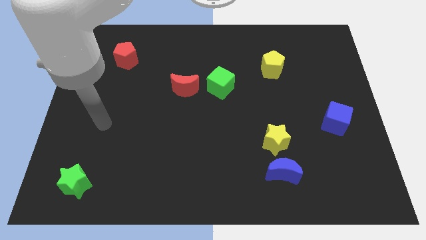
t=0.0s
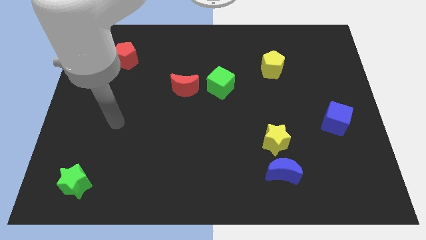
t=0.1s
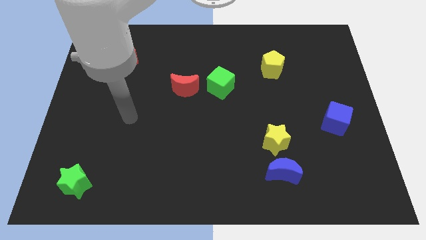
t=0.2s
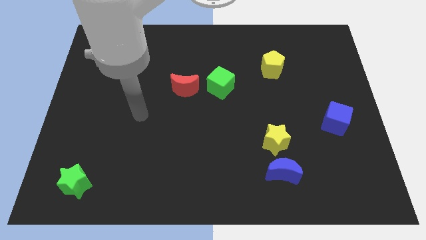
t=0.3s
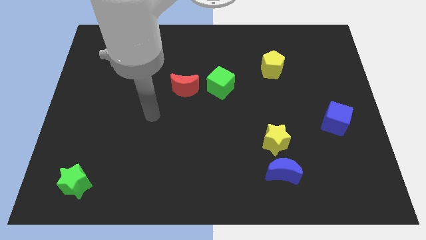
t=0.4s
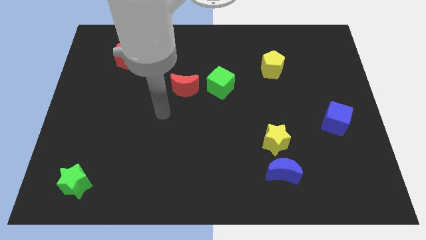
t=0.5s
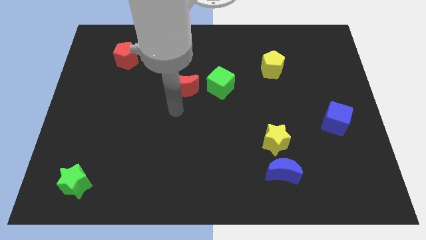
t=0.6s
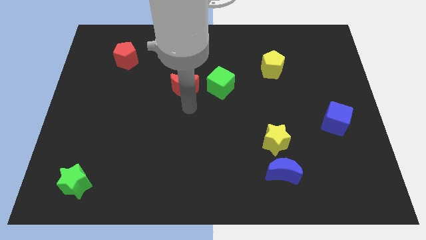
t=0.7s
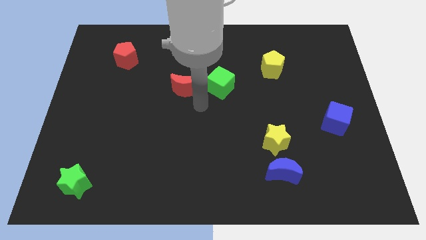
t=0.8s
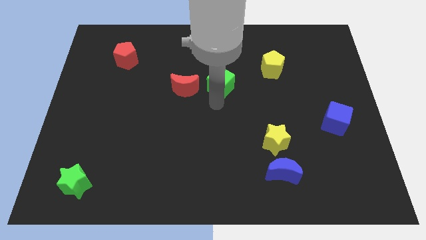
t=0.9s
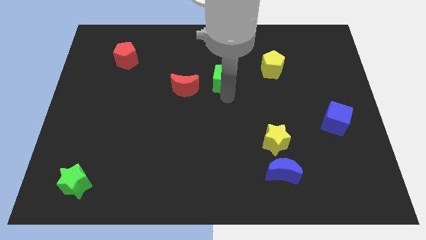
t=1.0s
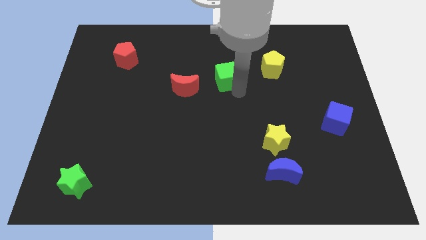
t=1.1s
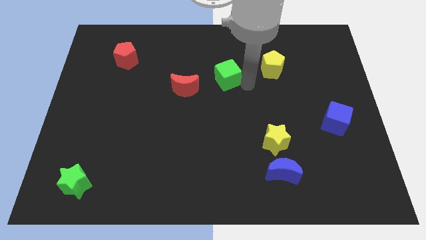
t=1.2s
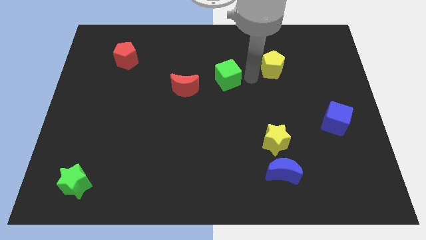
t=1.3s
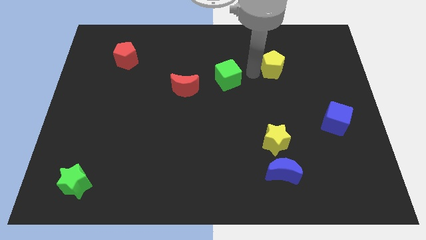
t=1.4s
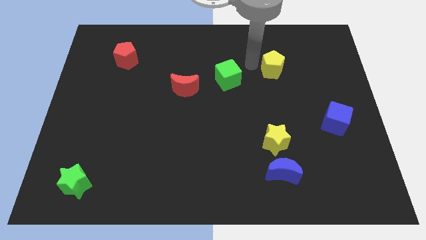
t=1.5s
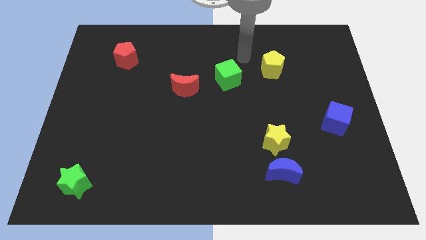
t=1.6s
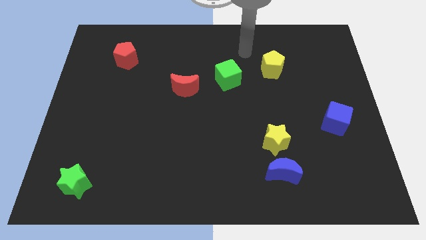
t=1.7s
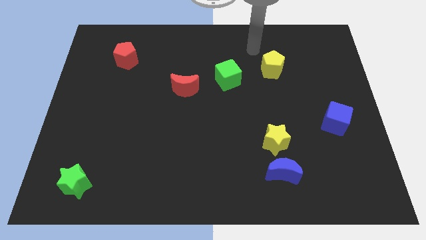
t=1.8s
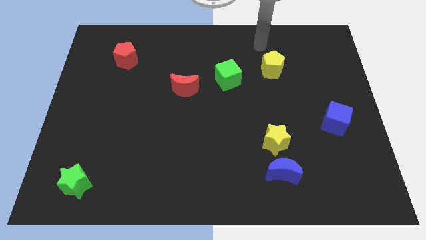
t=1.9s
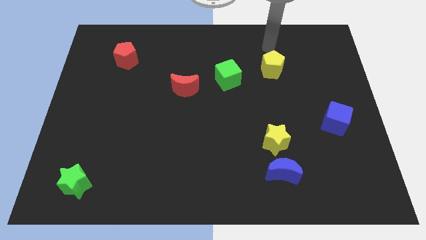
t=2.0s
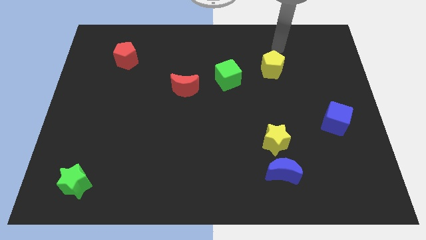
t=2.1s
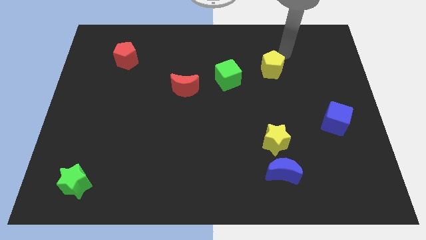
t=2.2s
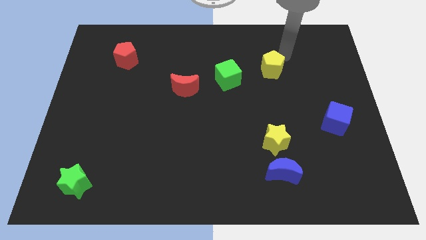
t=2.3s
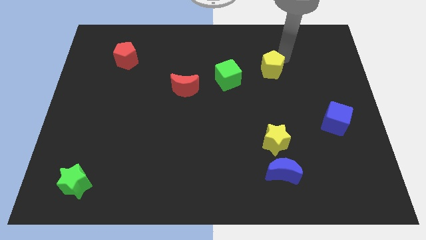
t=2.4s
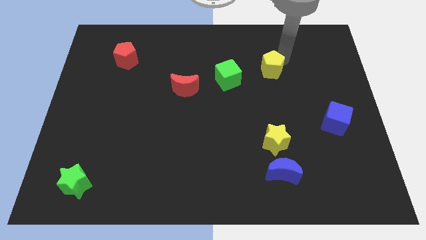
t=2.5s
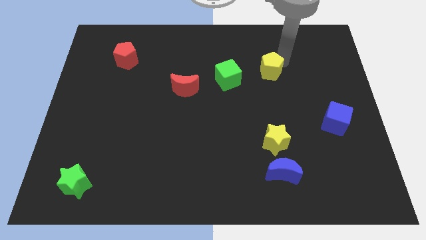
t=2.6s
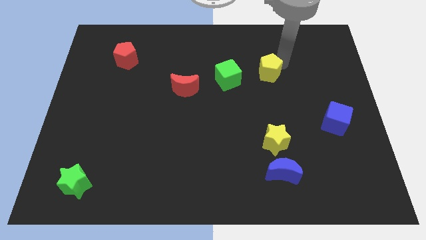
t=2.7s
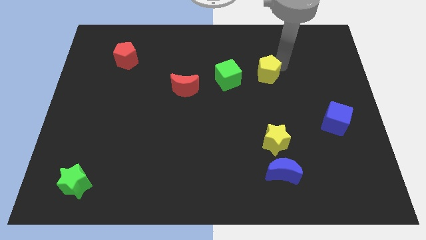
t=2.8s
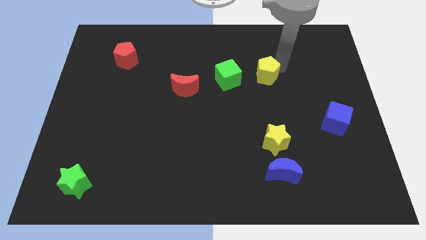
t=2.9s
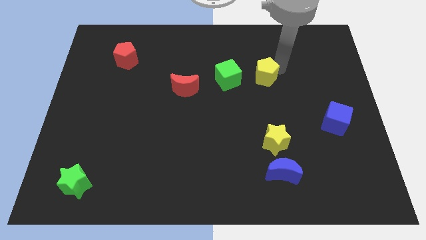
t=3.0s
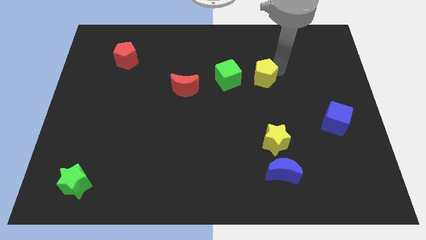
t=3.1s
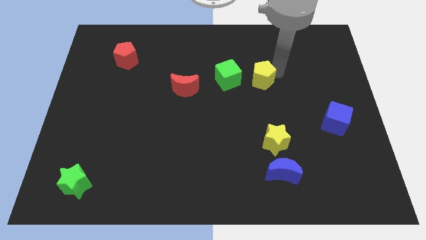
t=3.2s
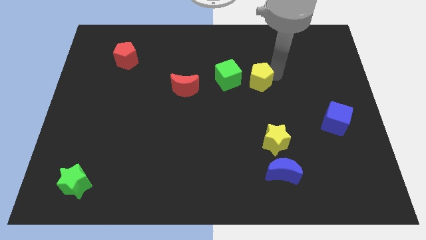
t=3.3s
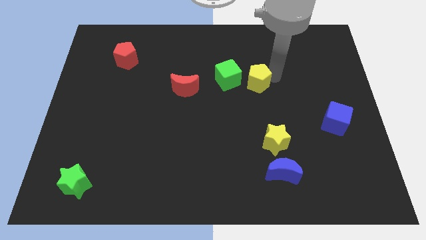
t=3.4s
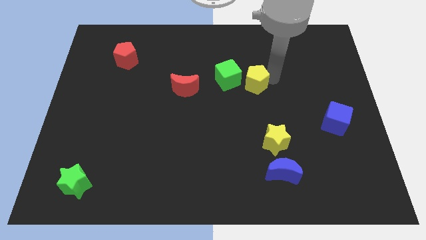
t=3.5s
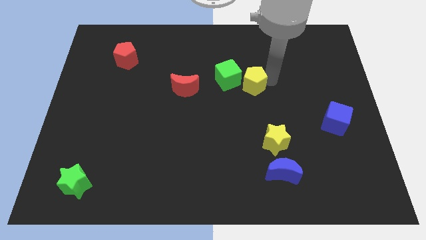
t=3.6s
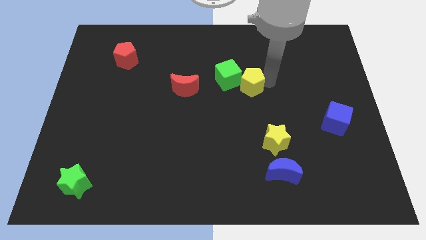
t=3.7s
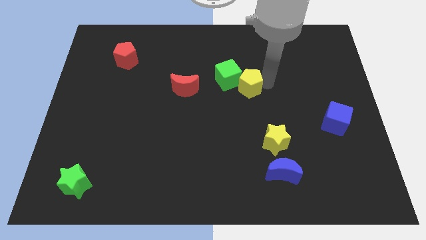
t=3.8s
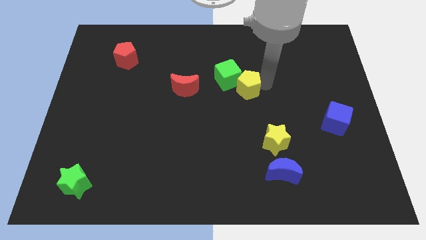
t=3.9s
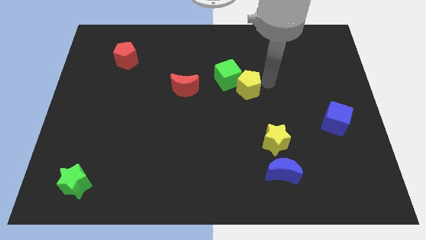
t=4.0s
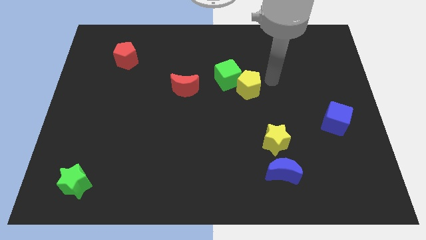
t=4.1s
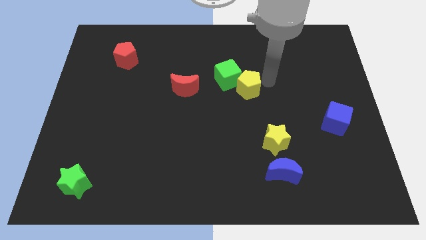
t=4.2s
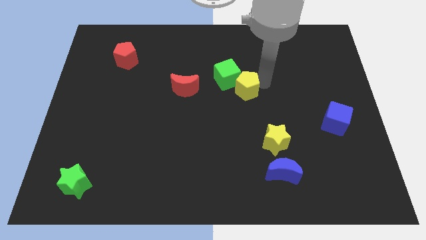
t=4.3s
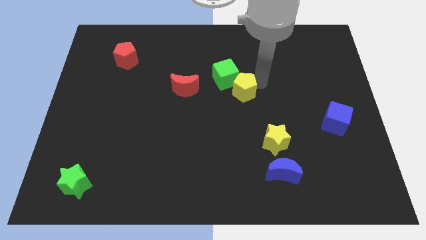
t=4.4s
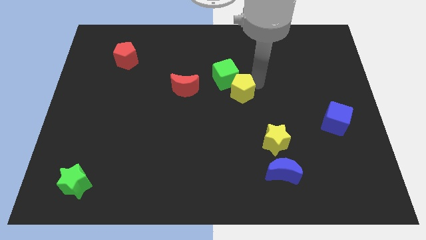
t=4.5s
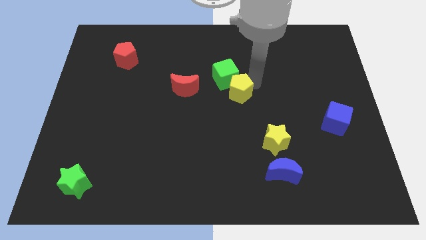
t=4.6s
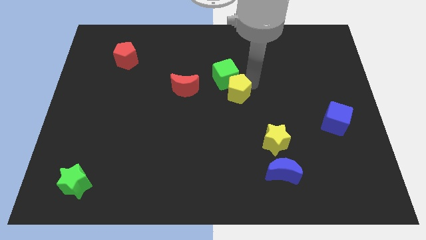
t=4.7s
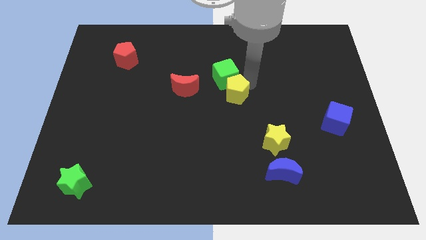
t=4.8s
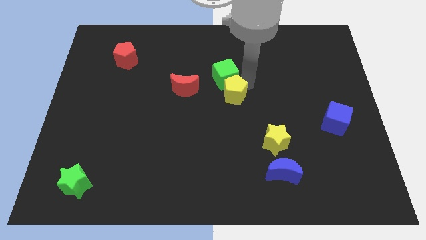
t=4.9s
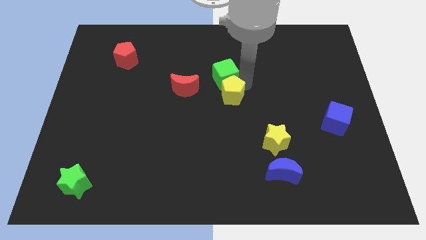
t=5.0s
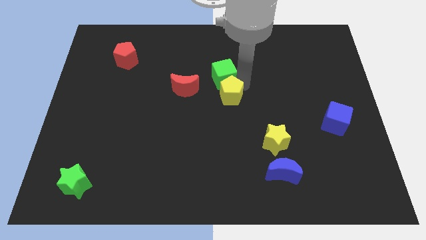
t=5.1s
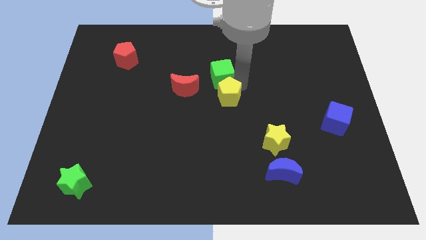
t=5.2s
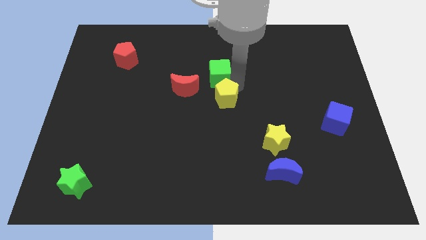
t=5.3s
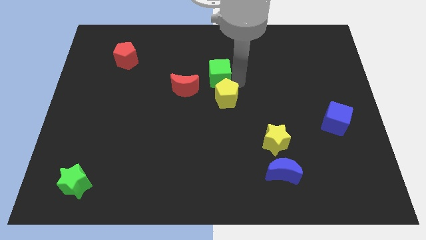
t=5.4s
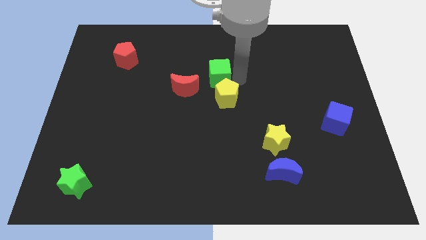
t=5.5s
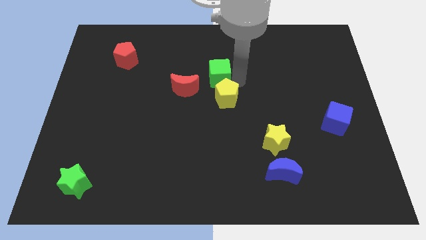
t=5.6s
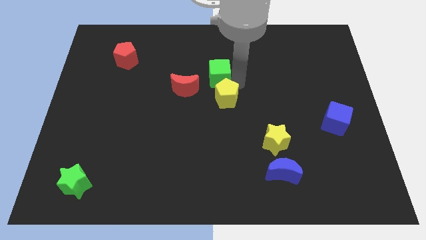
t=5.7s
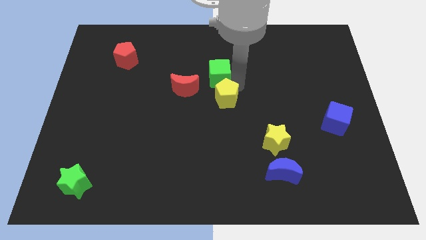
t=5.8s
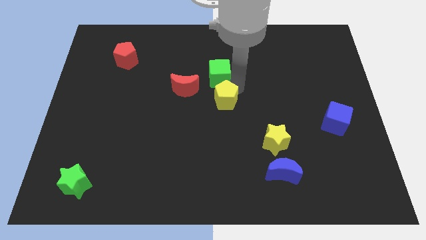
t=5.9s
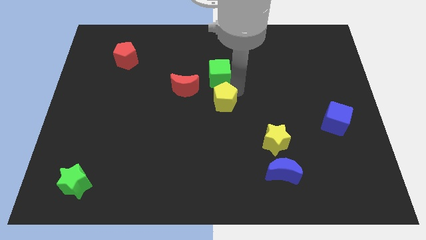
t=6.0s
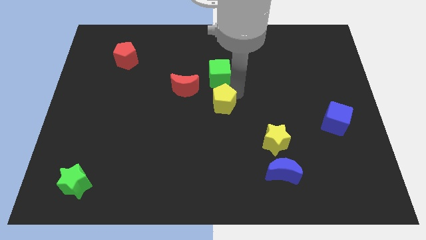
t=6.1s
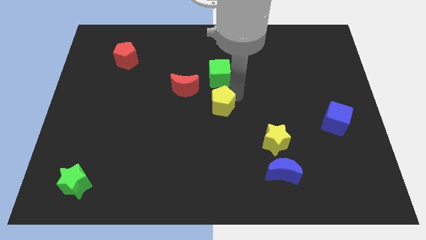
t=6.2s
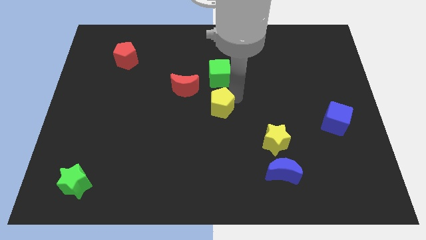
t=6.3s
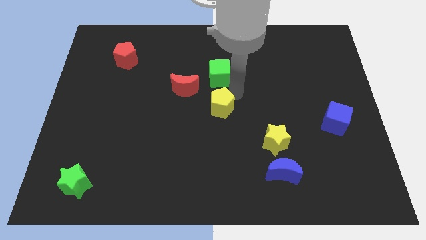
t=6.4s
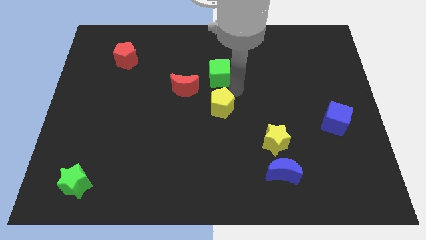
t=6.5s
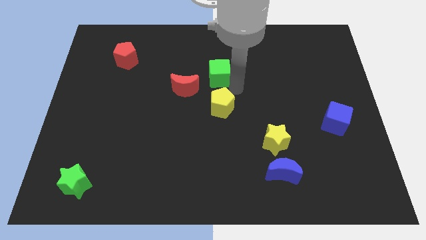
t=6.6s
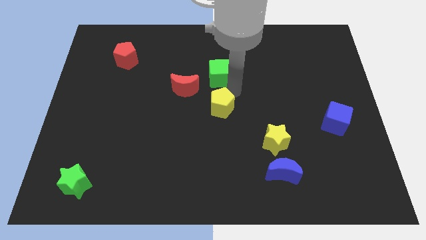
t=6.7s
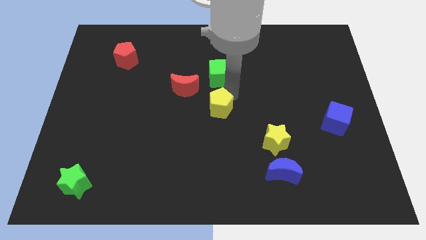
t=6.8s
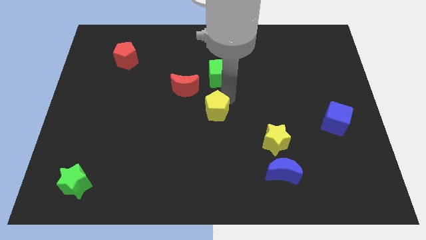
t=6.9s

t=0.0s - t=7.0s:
move the yellow pentagon downwards and then left

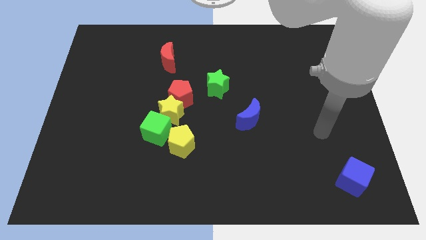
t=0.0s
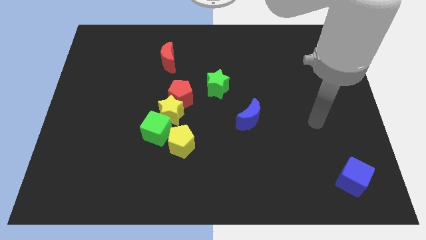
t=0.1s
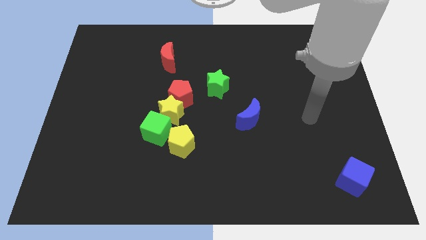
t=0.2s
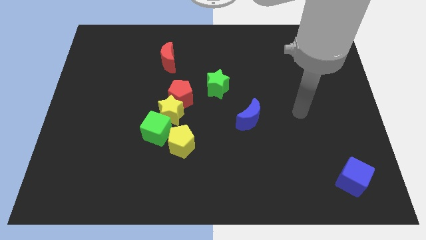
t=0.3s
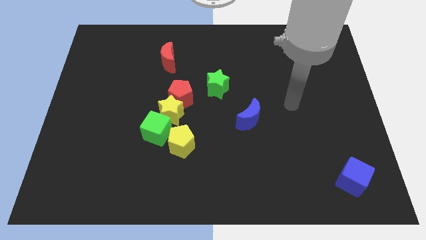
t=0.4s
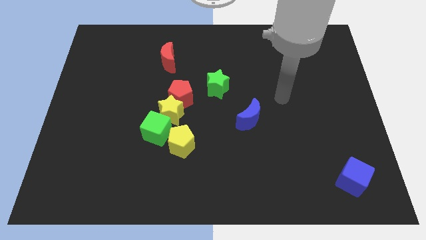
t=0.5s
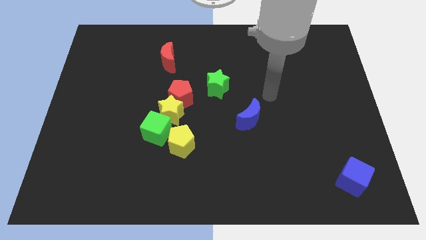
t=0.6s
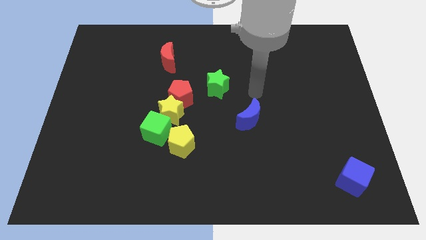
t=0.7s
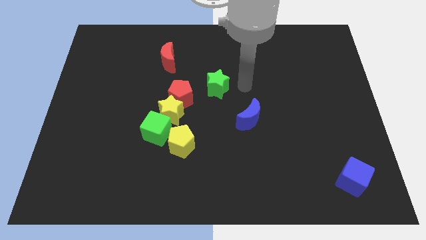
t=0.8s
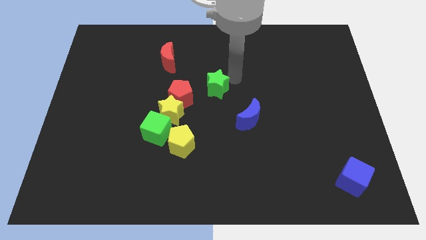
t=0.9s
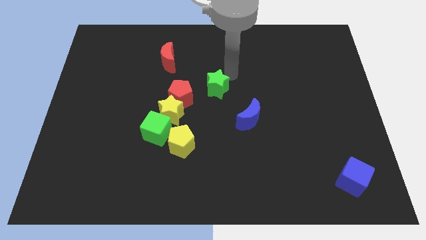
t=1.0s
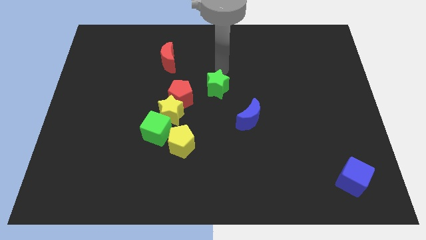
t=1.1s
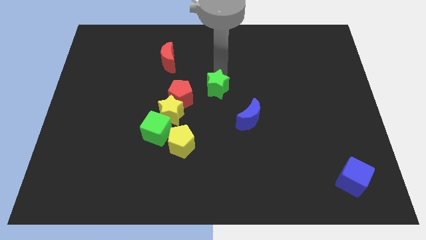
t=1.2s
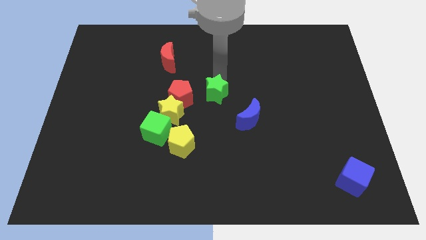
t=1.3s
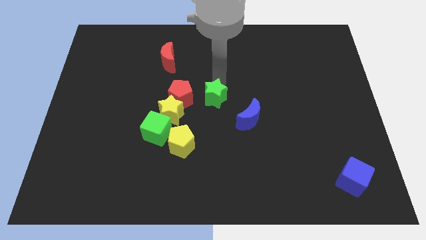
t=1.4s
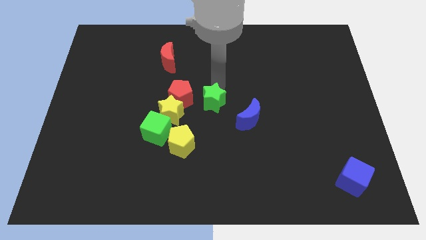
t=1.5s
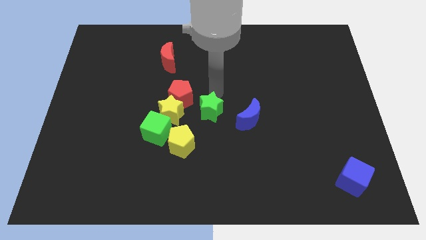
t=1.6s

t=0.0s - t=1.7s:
slightly push the green star downwards
